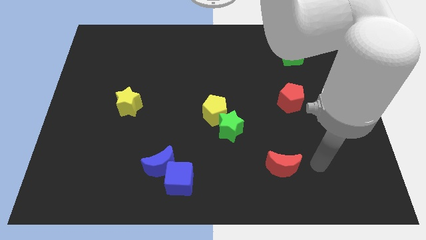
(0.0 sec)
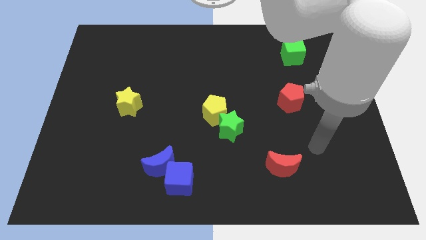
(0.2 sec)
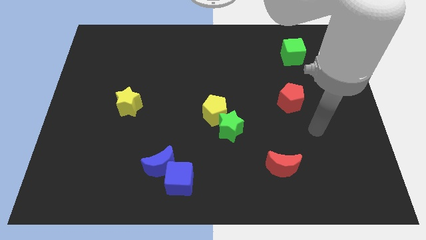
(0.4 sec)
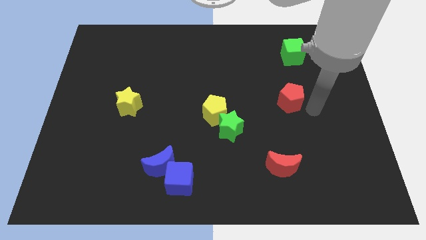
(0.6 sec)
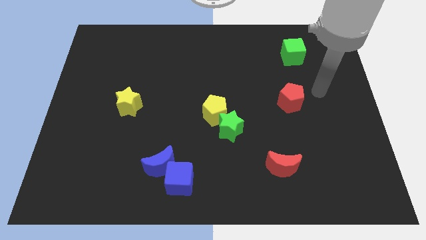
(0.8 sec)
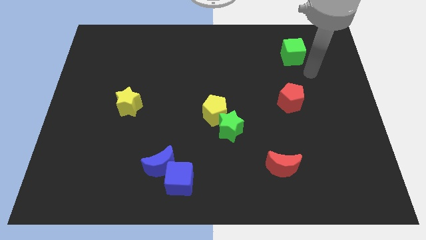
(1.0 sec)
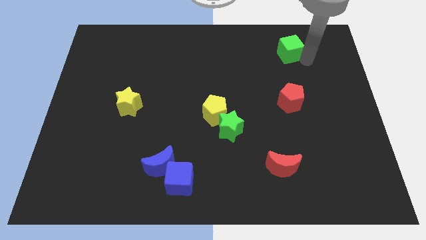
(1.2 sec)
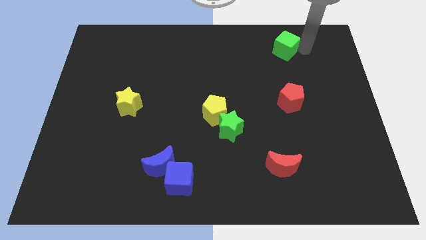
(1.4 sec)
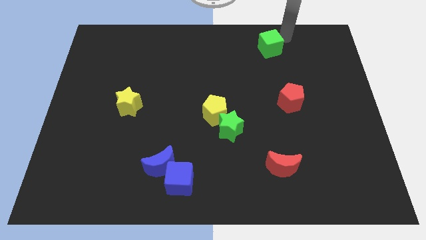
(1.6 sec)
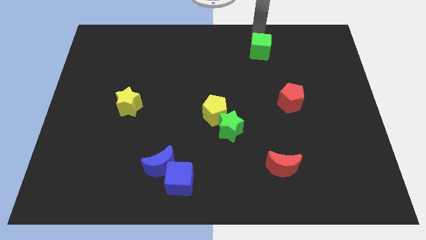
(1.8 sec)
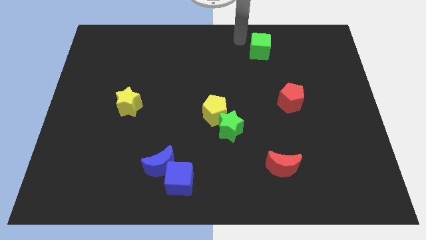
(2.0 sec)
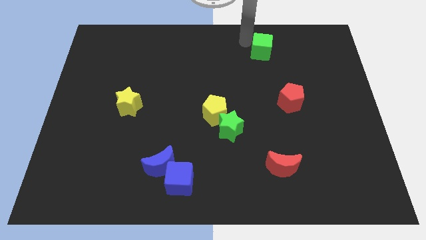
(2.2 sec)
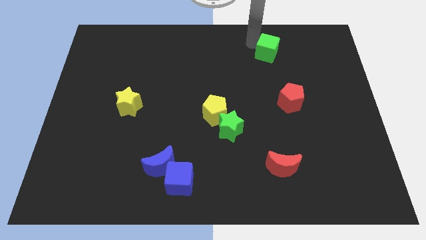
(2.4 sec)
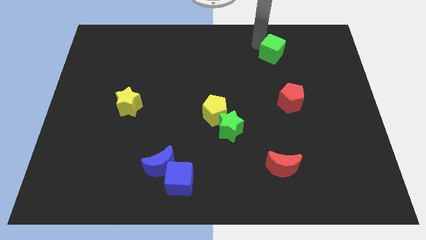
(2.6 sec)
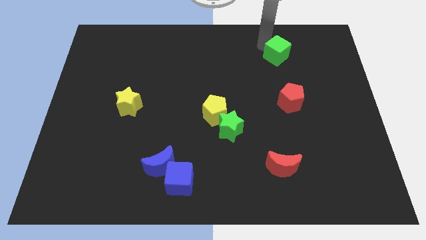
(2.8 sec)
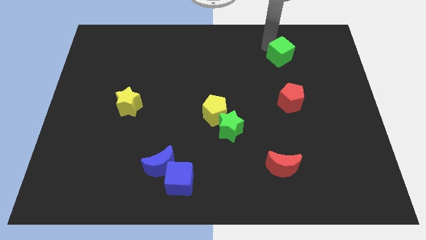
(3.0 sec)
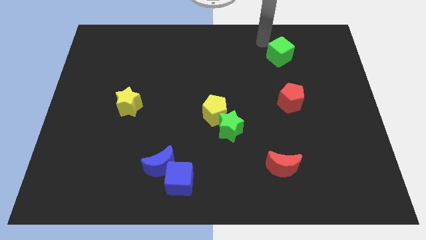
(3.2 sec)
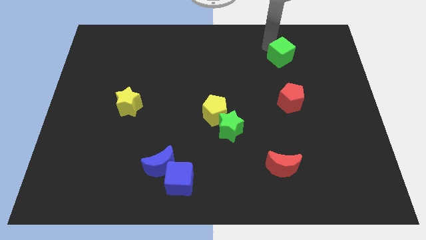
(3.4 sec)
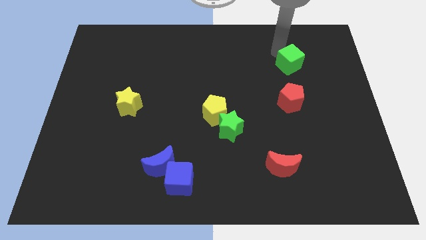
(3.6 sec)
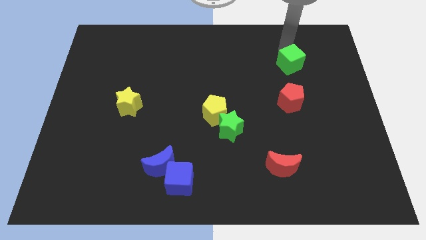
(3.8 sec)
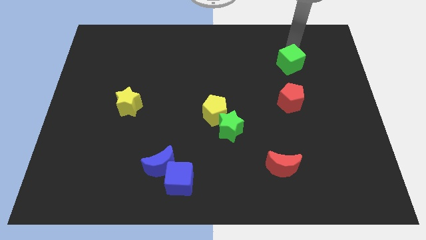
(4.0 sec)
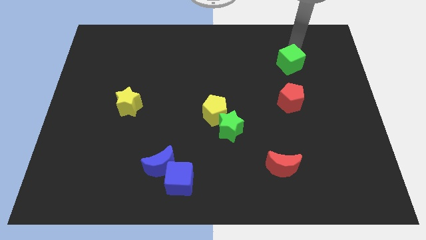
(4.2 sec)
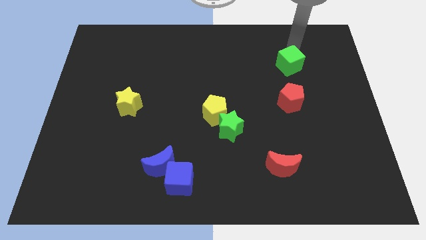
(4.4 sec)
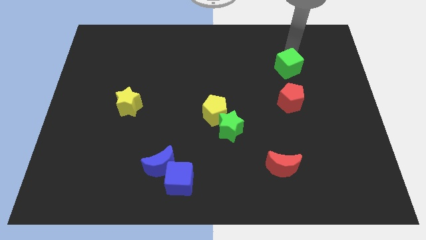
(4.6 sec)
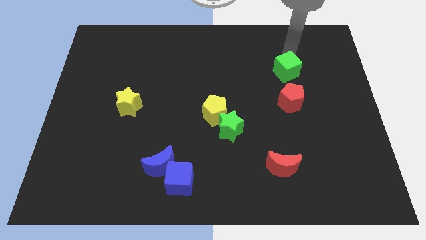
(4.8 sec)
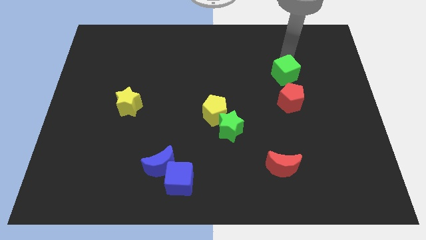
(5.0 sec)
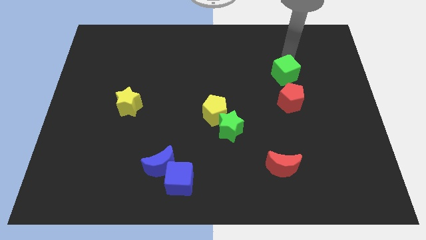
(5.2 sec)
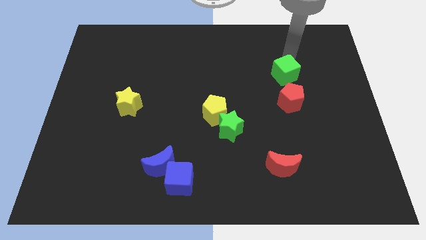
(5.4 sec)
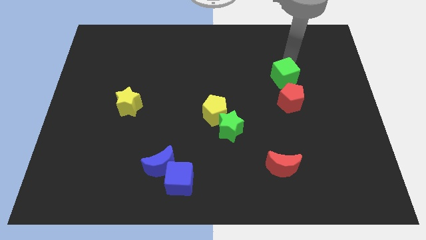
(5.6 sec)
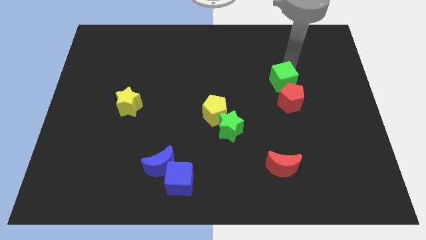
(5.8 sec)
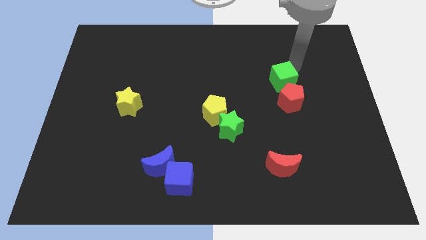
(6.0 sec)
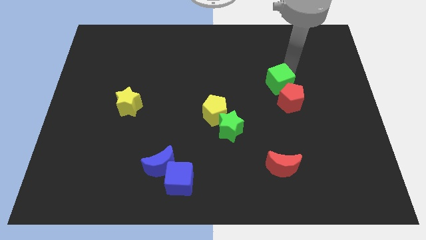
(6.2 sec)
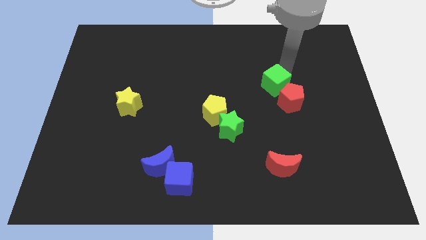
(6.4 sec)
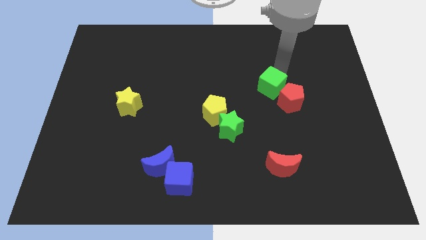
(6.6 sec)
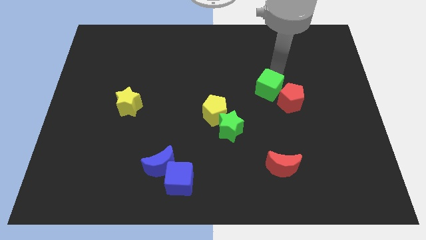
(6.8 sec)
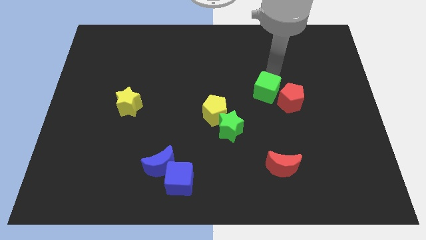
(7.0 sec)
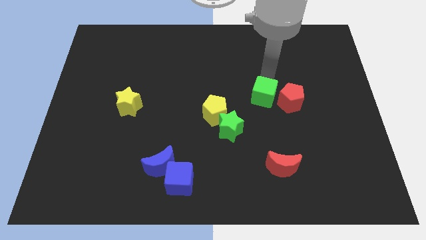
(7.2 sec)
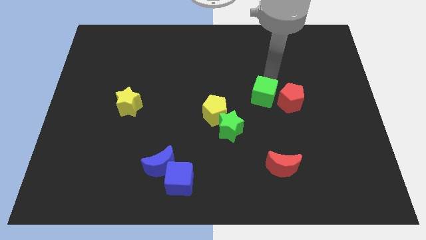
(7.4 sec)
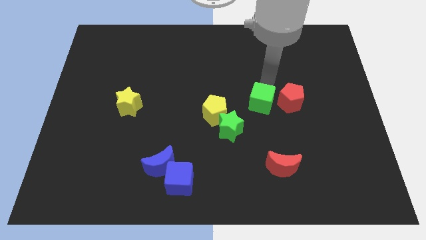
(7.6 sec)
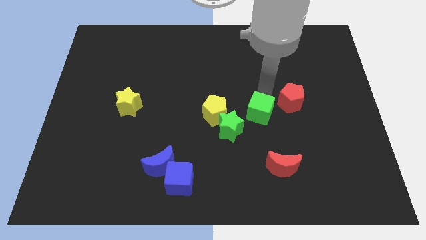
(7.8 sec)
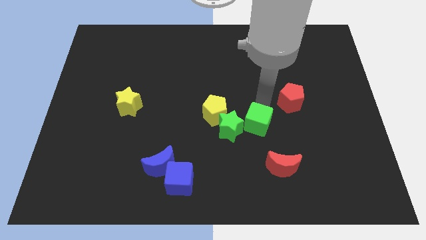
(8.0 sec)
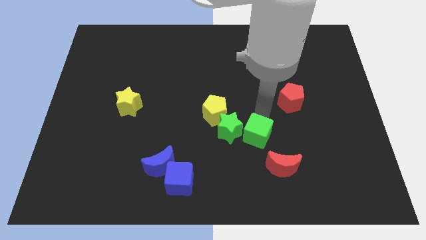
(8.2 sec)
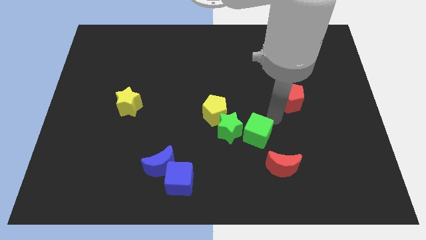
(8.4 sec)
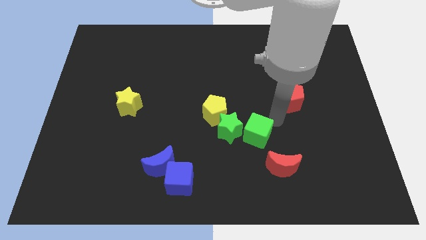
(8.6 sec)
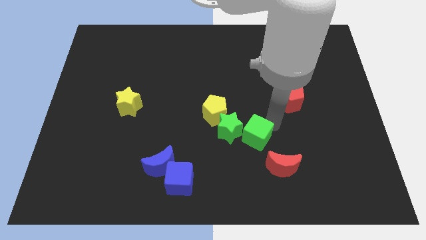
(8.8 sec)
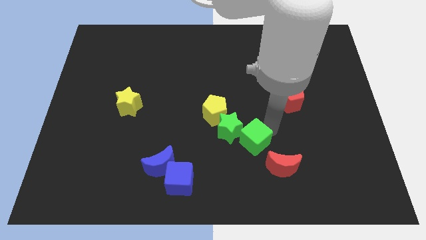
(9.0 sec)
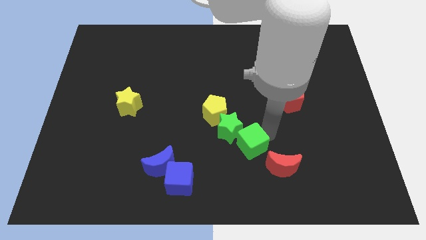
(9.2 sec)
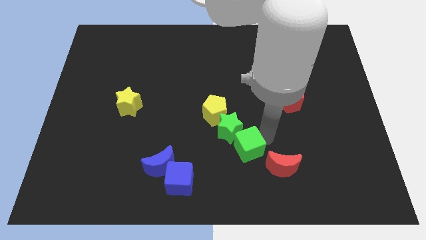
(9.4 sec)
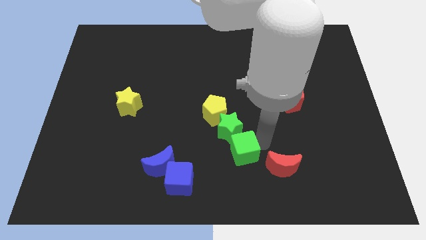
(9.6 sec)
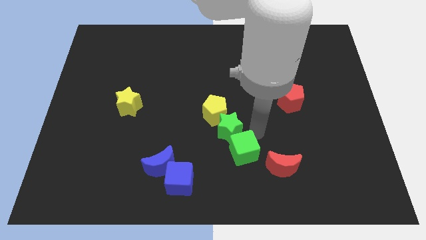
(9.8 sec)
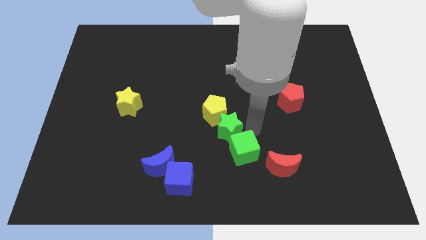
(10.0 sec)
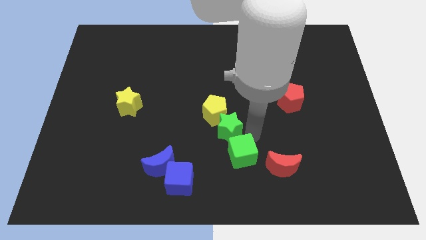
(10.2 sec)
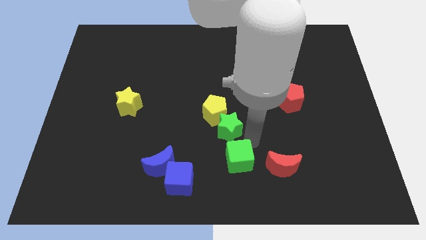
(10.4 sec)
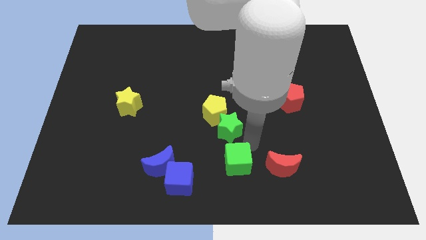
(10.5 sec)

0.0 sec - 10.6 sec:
slide the green cube to the right of the blue cube
